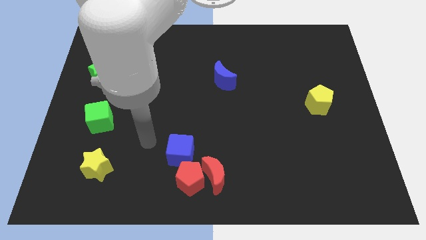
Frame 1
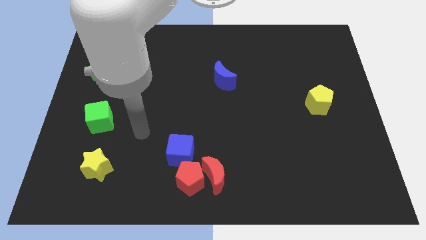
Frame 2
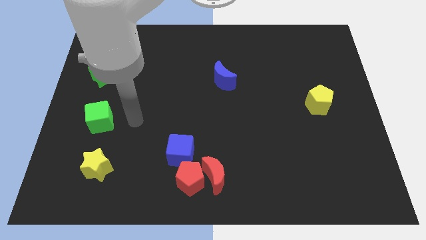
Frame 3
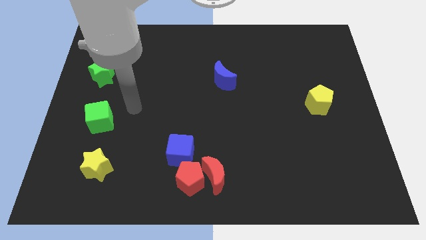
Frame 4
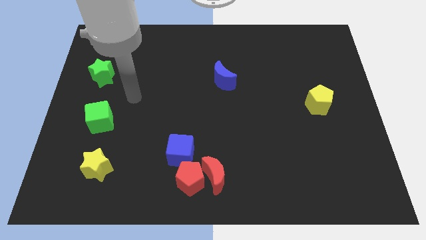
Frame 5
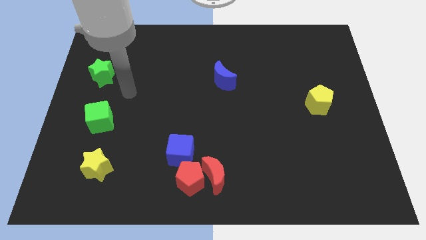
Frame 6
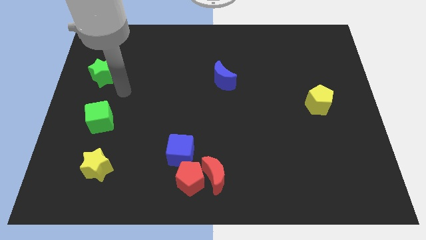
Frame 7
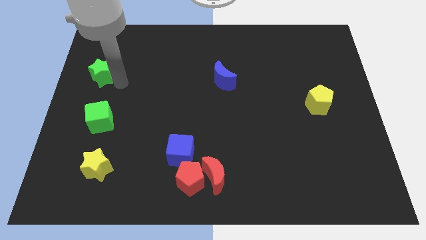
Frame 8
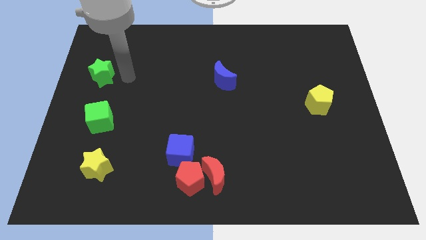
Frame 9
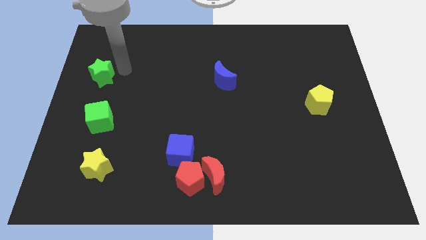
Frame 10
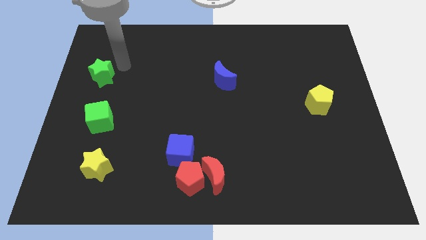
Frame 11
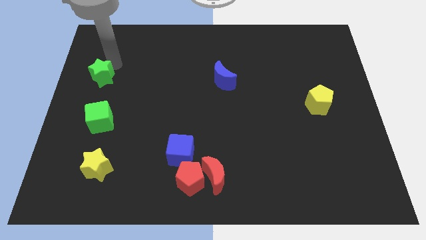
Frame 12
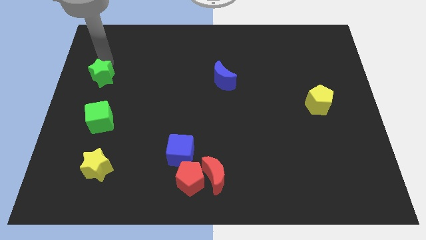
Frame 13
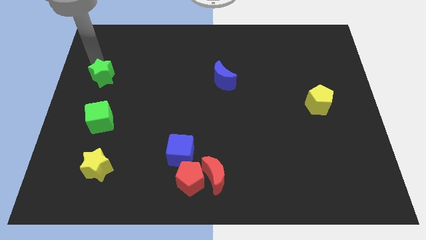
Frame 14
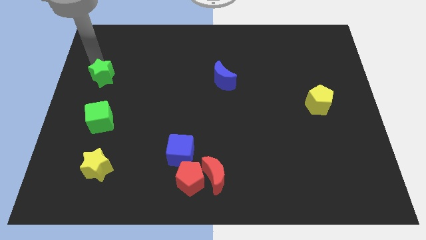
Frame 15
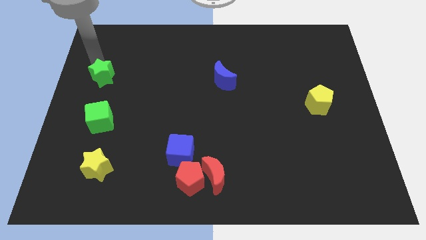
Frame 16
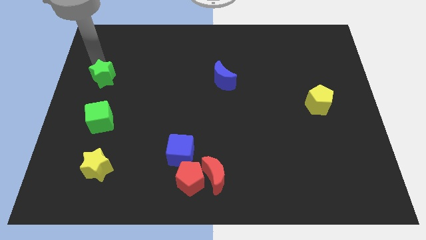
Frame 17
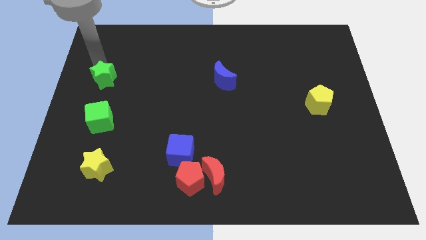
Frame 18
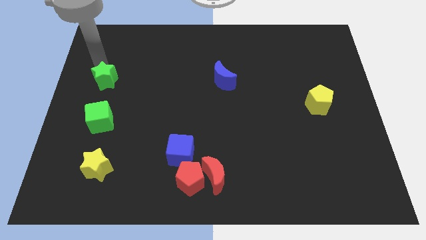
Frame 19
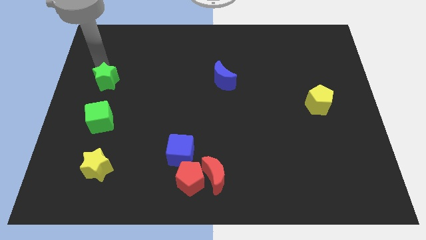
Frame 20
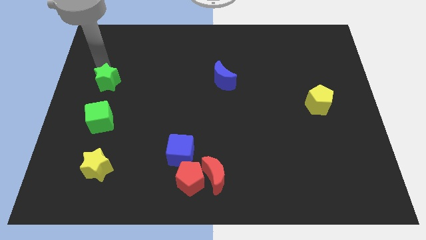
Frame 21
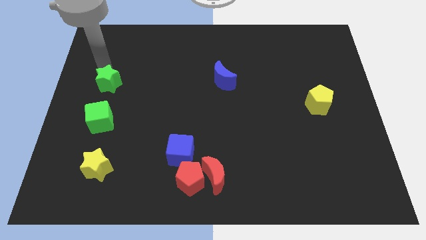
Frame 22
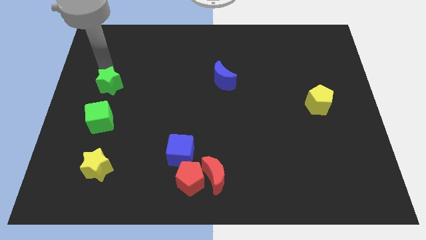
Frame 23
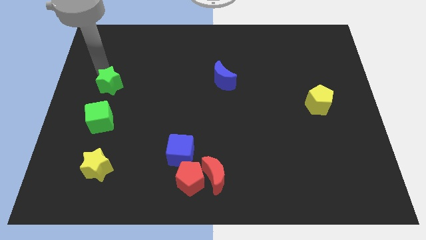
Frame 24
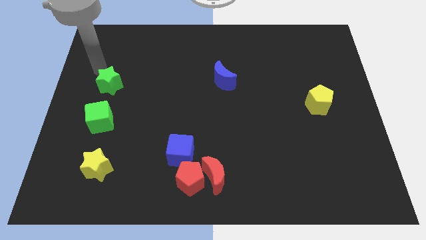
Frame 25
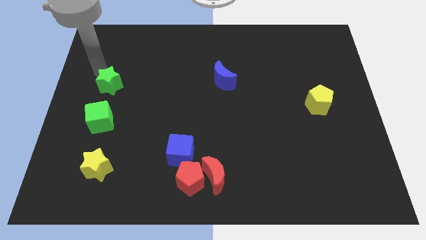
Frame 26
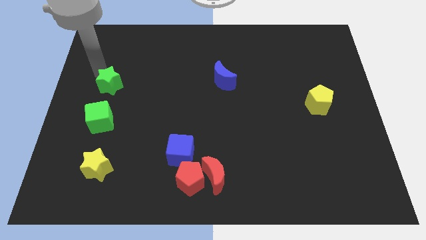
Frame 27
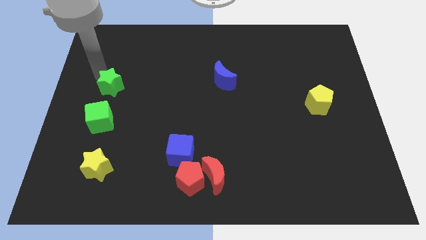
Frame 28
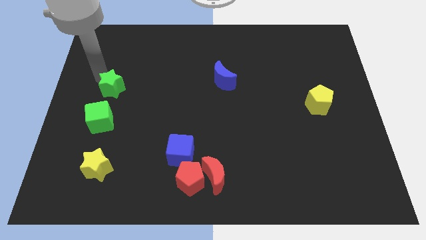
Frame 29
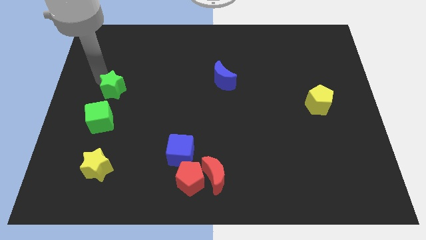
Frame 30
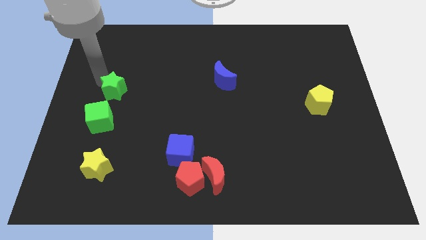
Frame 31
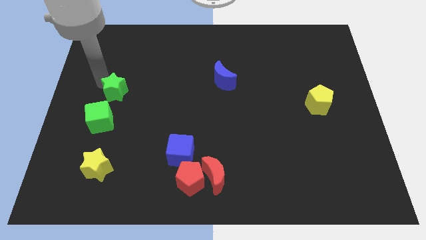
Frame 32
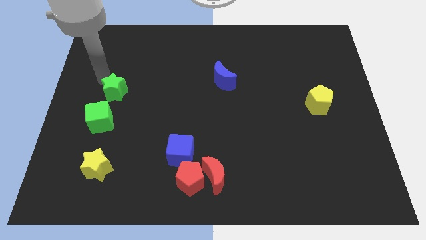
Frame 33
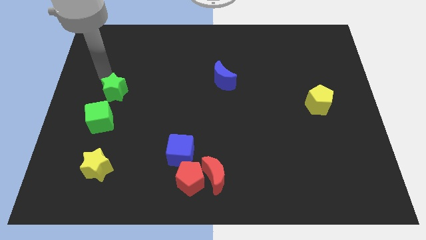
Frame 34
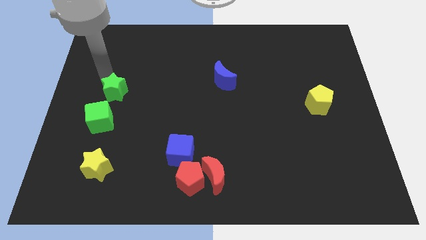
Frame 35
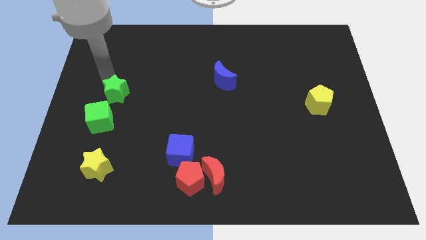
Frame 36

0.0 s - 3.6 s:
slightly move the green star downwards and to the right diagonally

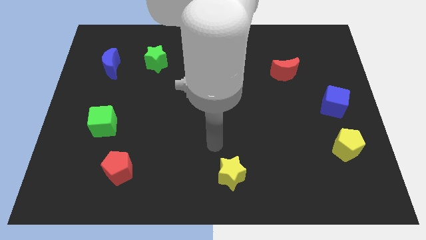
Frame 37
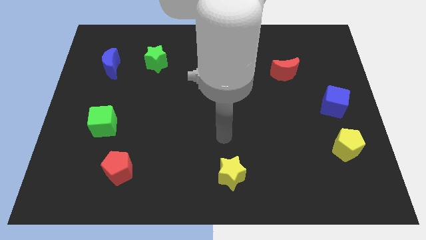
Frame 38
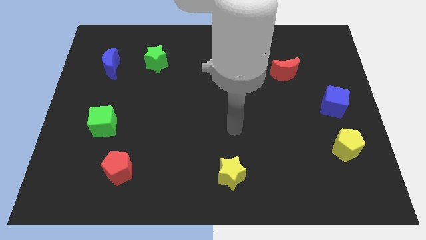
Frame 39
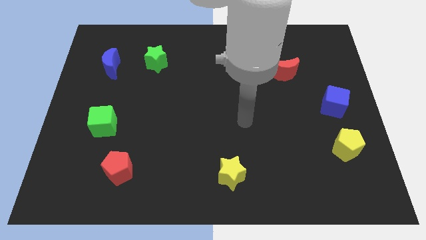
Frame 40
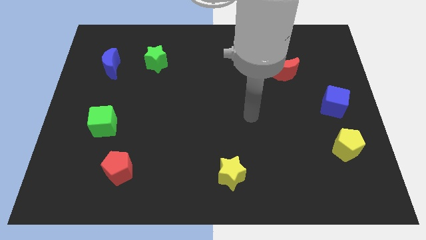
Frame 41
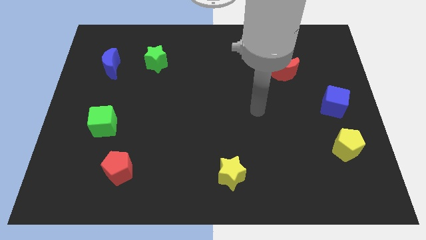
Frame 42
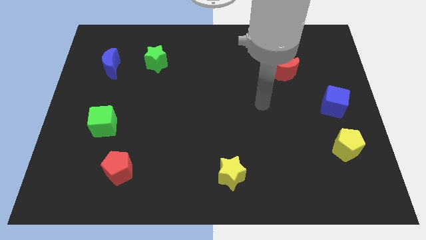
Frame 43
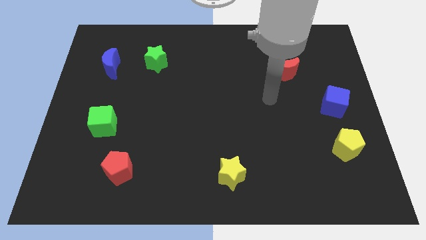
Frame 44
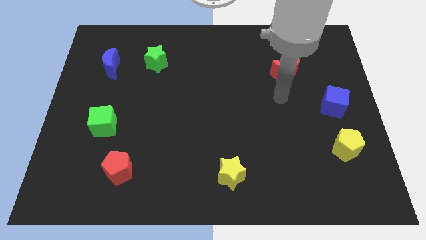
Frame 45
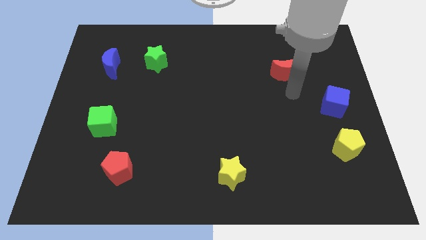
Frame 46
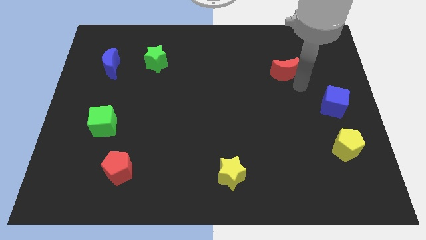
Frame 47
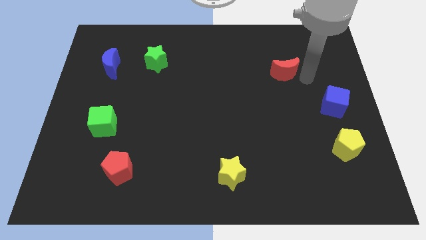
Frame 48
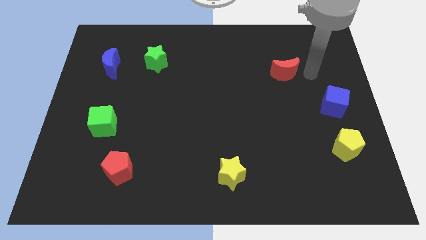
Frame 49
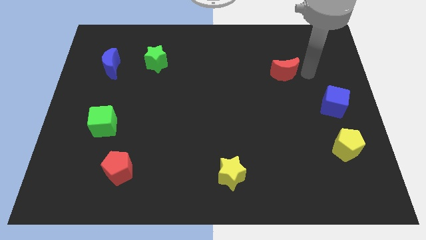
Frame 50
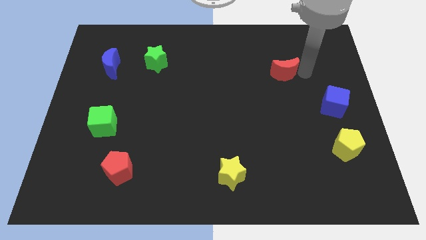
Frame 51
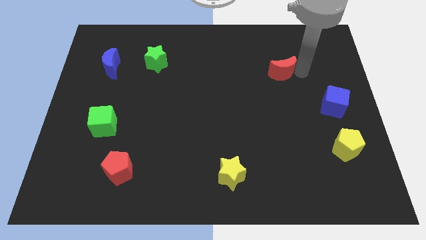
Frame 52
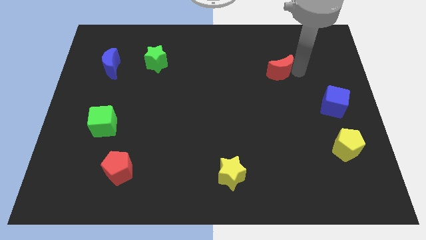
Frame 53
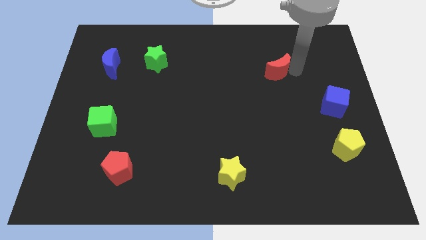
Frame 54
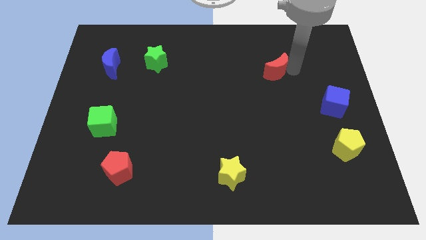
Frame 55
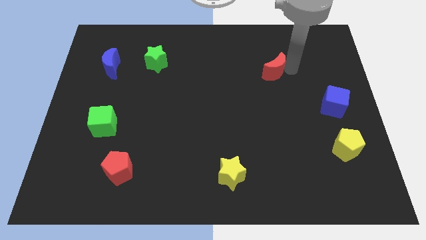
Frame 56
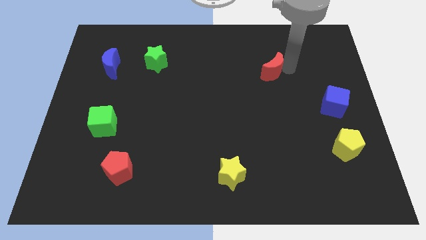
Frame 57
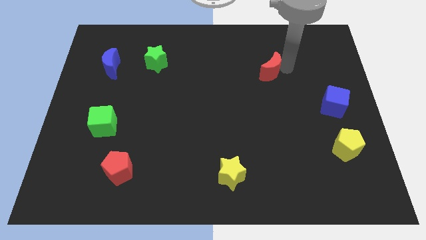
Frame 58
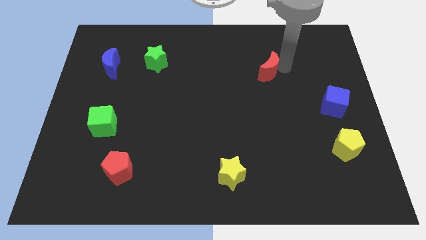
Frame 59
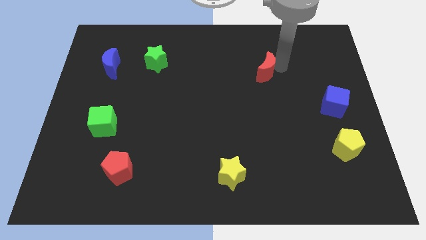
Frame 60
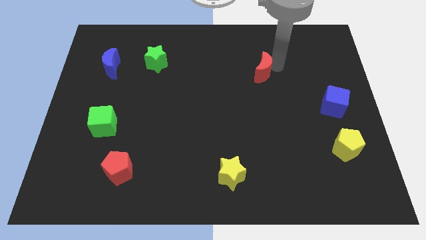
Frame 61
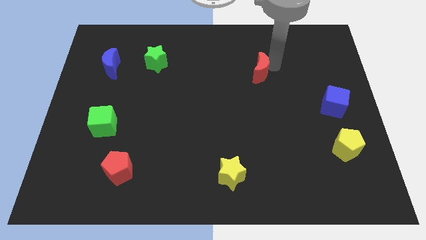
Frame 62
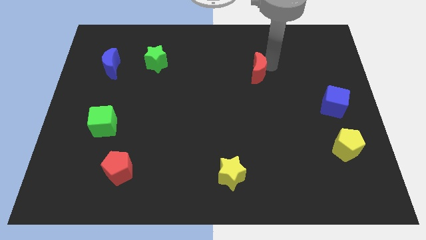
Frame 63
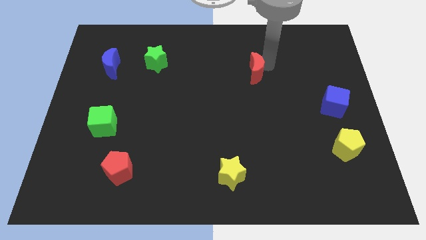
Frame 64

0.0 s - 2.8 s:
slightly slide the red moon to the left

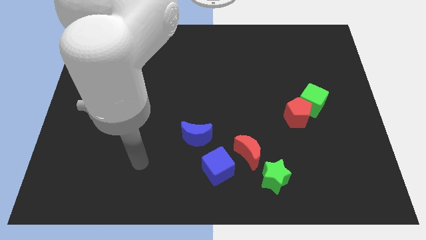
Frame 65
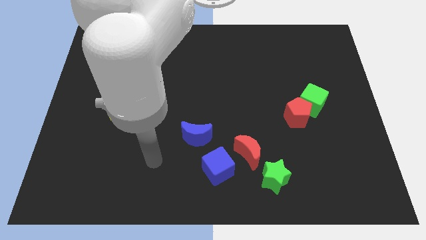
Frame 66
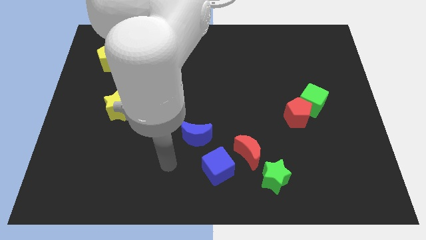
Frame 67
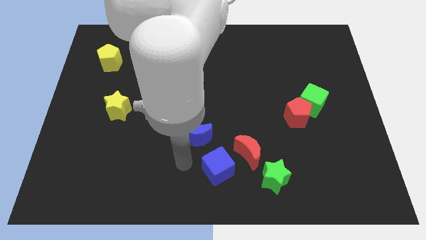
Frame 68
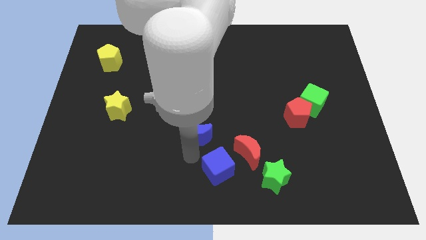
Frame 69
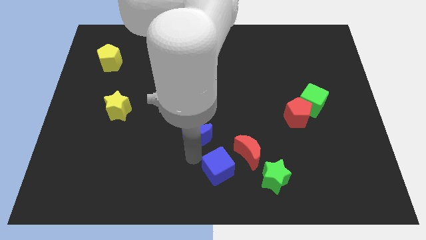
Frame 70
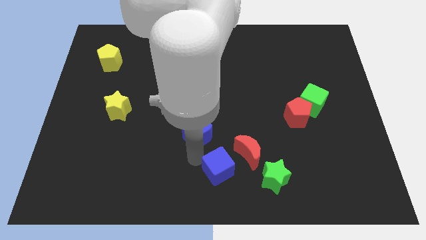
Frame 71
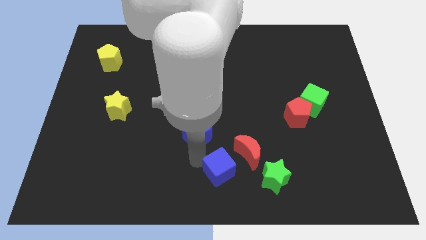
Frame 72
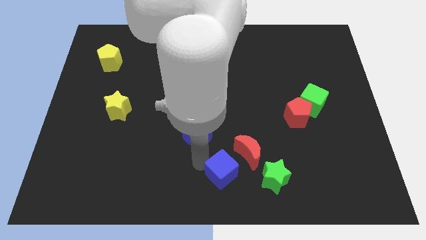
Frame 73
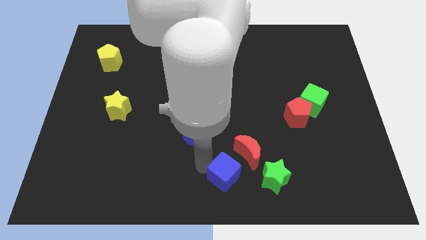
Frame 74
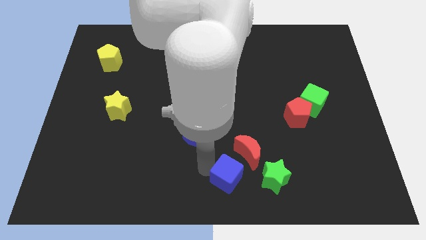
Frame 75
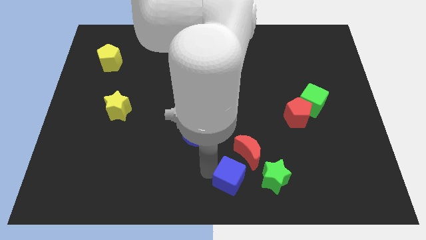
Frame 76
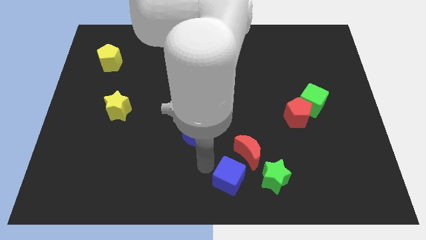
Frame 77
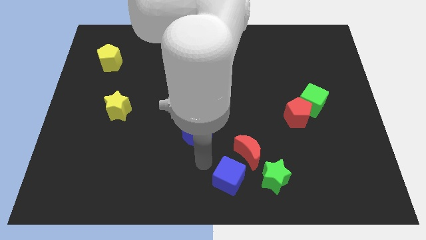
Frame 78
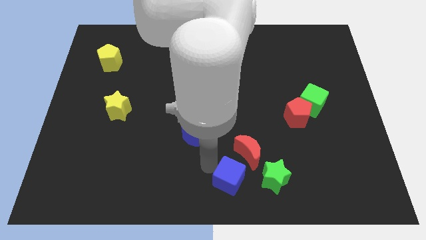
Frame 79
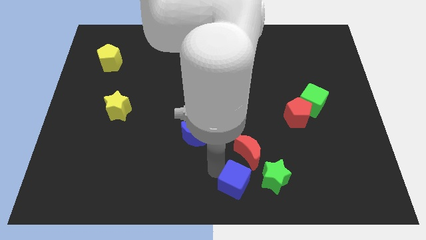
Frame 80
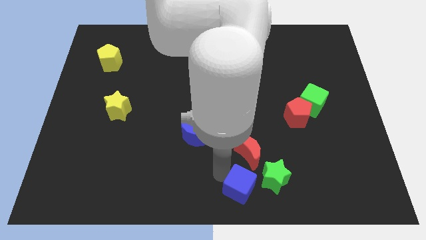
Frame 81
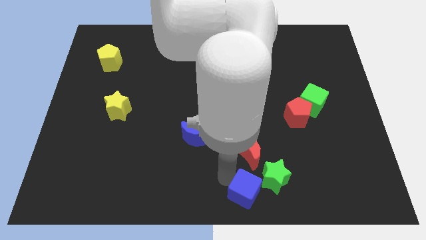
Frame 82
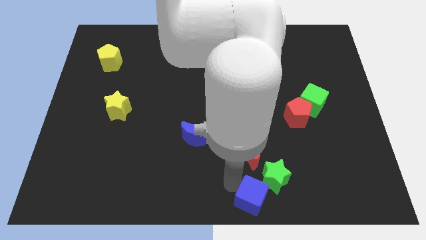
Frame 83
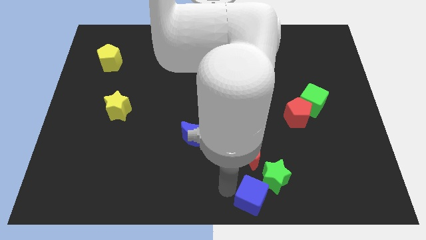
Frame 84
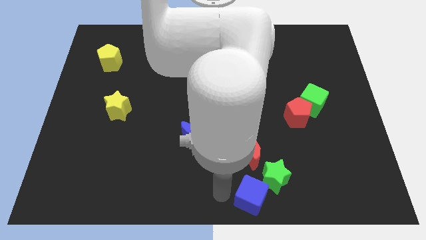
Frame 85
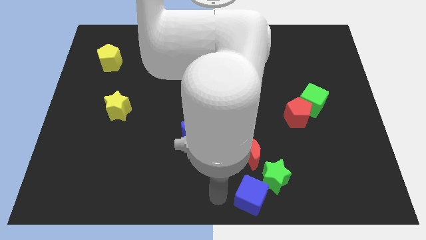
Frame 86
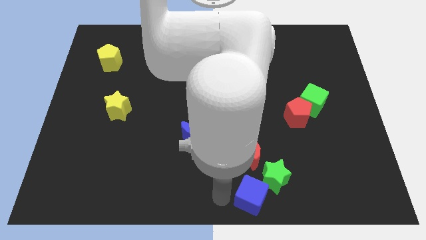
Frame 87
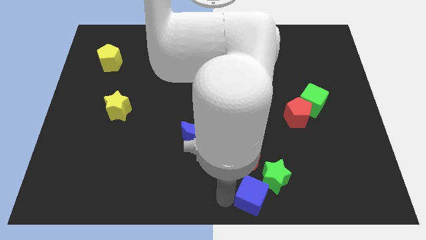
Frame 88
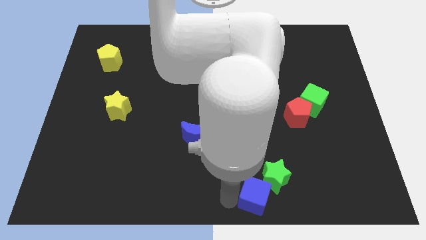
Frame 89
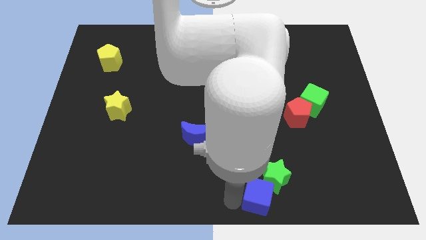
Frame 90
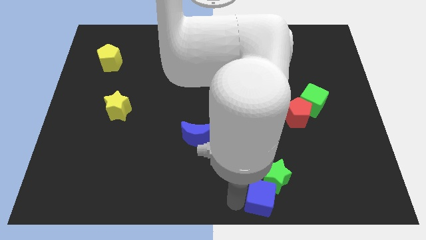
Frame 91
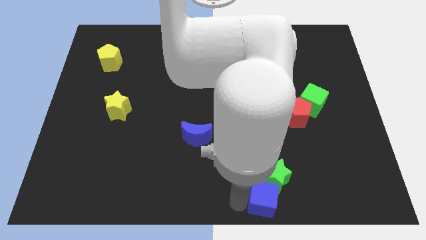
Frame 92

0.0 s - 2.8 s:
slightly push the blue cube to the right
